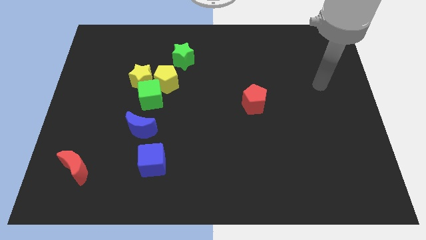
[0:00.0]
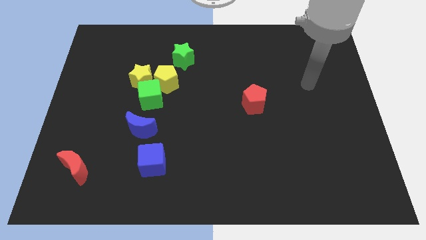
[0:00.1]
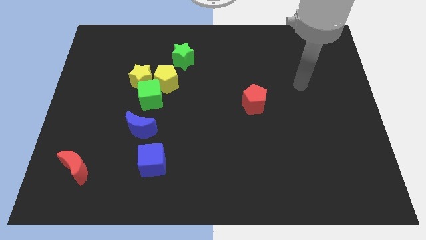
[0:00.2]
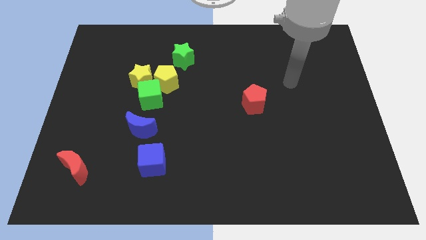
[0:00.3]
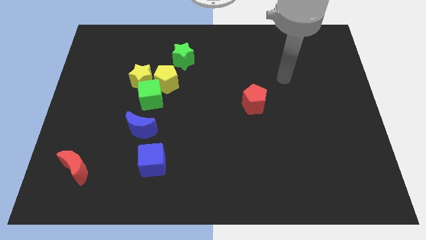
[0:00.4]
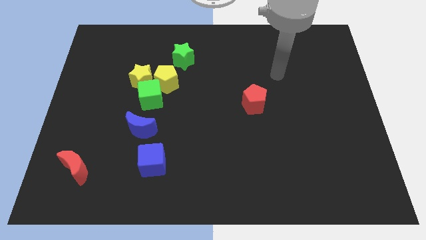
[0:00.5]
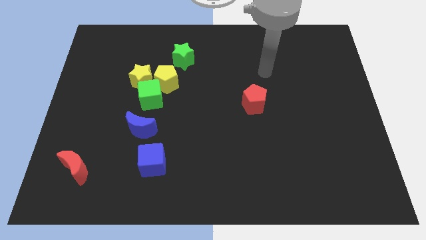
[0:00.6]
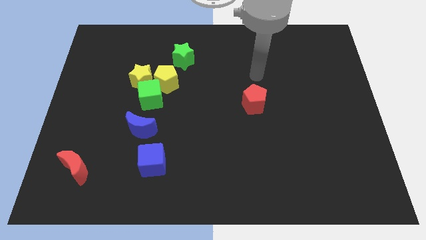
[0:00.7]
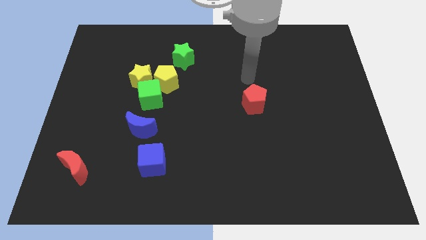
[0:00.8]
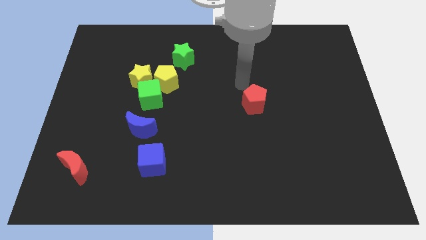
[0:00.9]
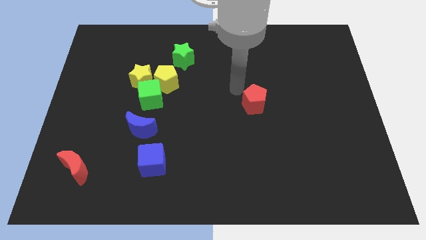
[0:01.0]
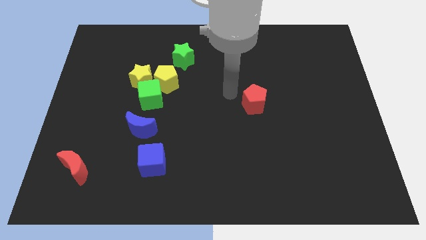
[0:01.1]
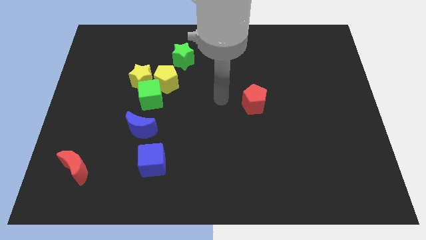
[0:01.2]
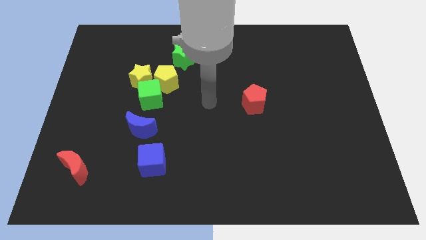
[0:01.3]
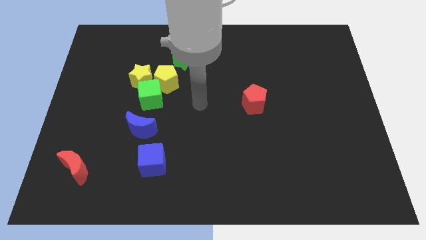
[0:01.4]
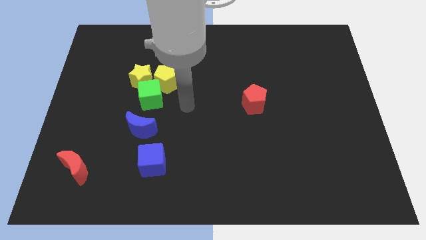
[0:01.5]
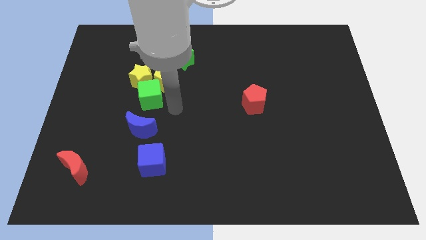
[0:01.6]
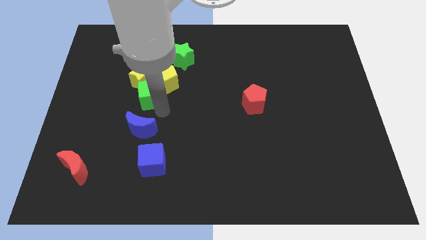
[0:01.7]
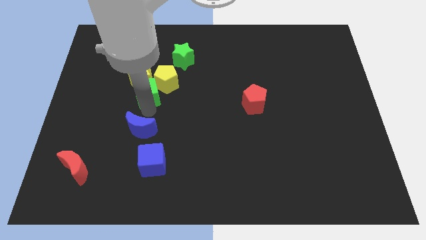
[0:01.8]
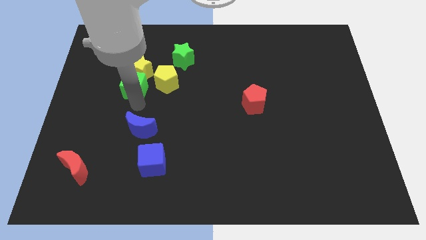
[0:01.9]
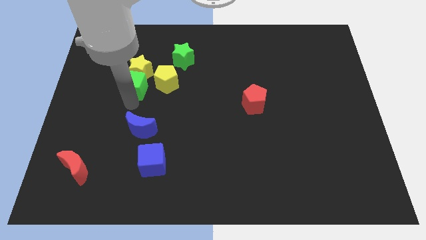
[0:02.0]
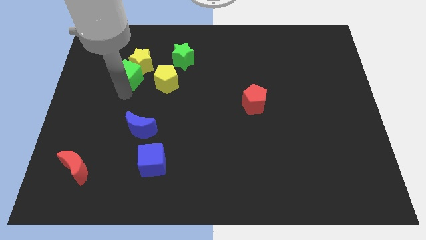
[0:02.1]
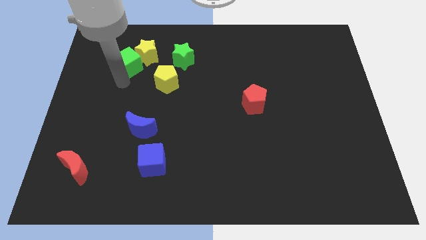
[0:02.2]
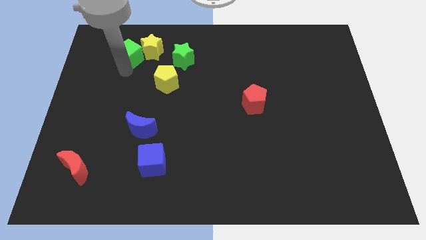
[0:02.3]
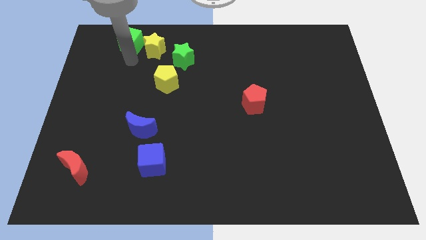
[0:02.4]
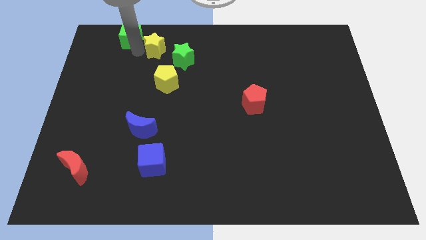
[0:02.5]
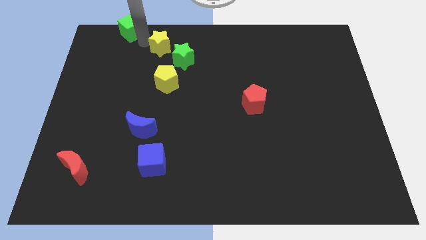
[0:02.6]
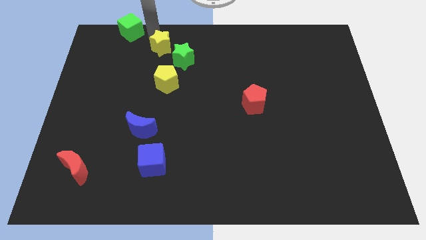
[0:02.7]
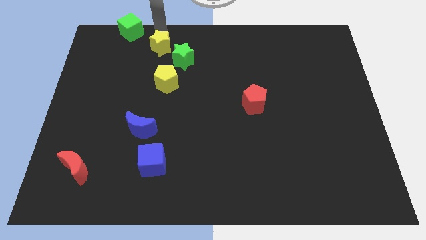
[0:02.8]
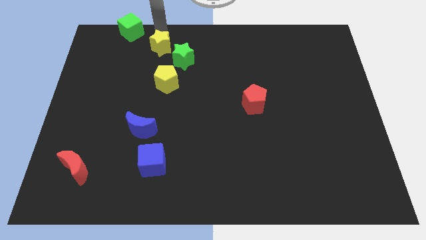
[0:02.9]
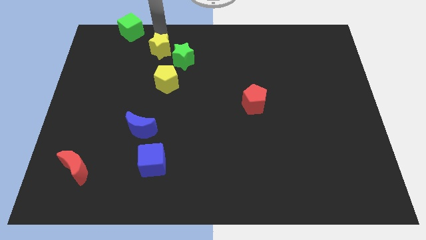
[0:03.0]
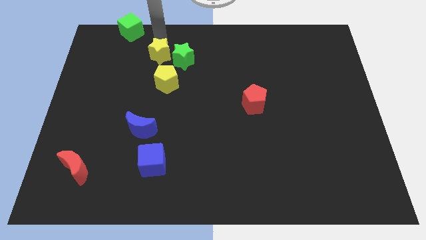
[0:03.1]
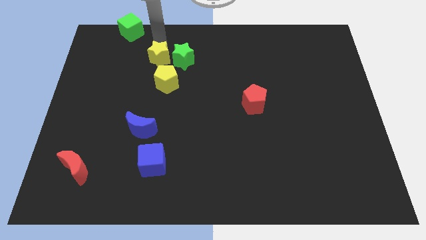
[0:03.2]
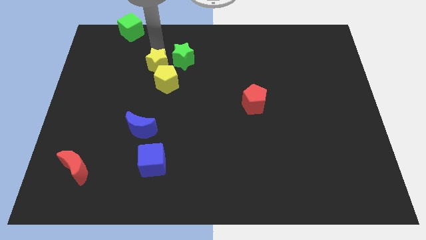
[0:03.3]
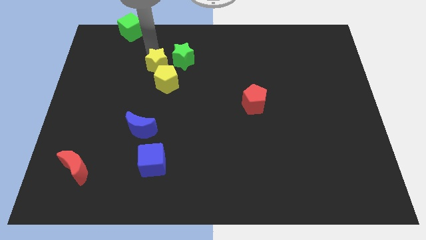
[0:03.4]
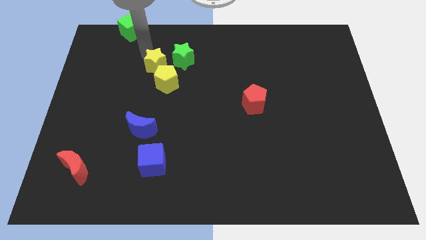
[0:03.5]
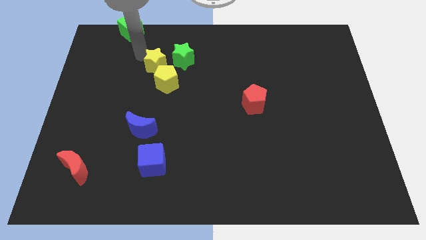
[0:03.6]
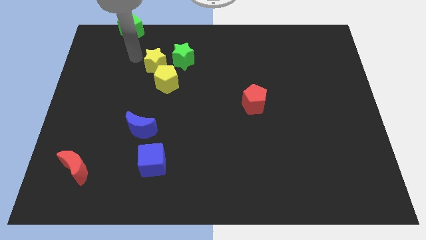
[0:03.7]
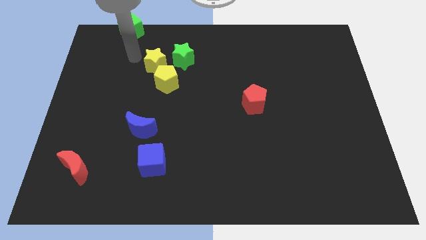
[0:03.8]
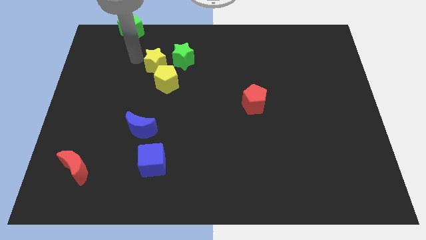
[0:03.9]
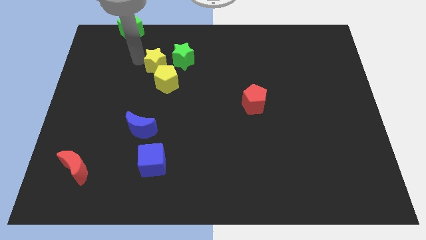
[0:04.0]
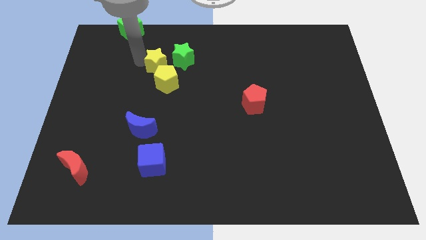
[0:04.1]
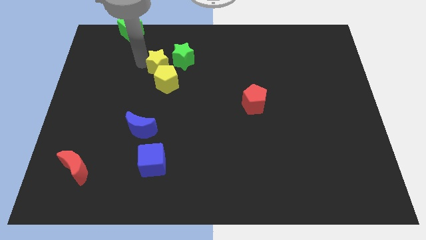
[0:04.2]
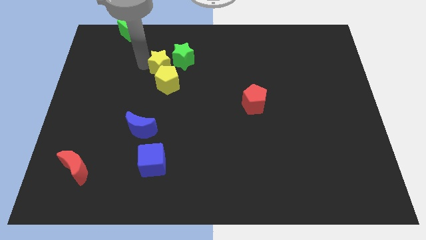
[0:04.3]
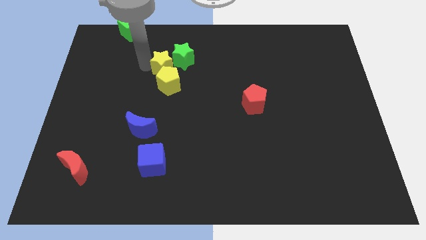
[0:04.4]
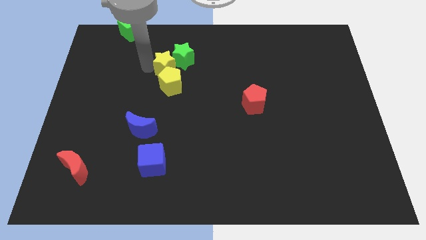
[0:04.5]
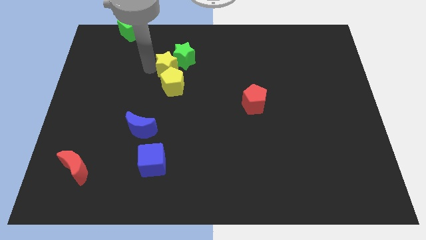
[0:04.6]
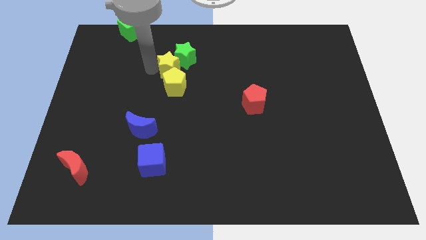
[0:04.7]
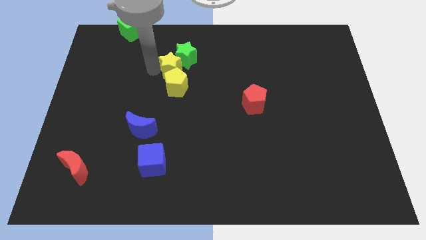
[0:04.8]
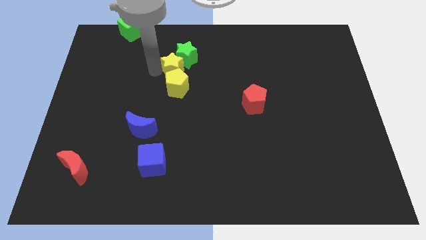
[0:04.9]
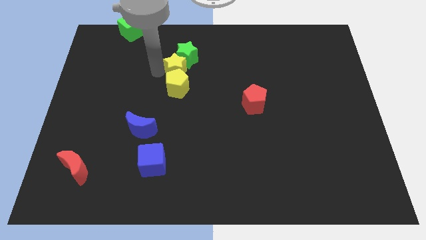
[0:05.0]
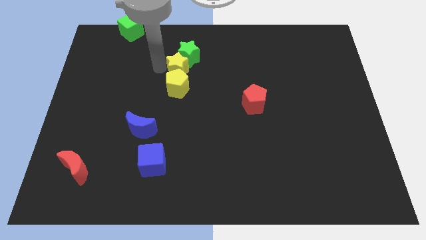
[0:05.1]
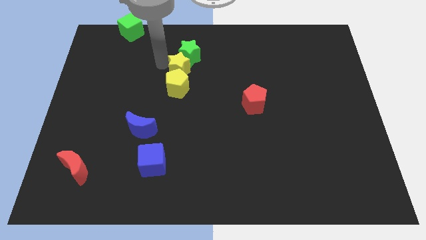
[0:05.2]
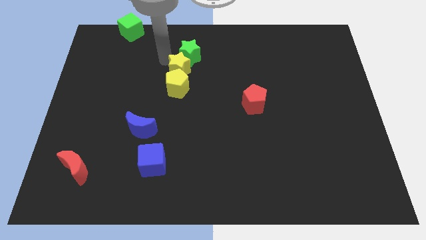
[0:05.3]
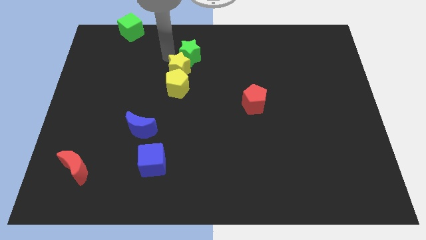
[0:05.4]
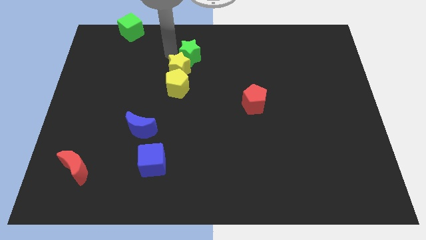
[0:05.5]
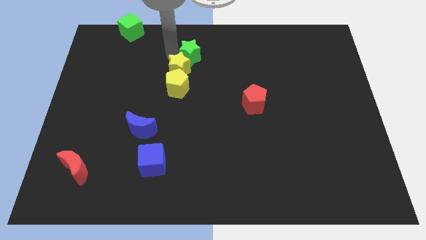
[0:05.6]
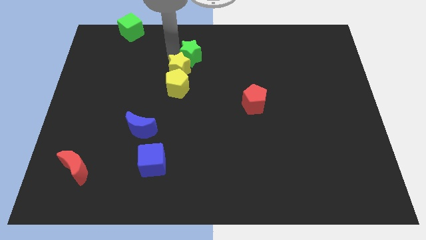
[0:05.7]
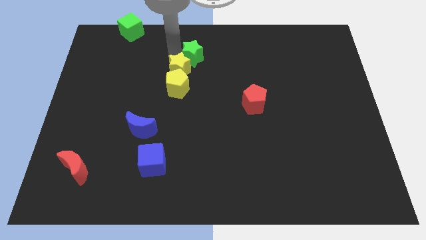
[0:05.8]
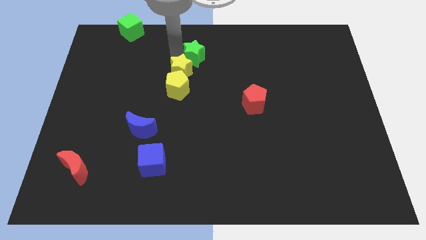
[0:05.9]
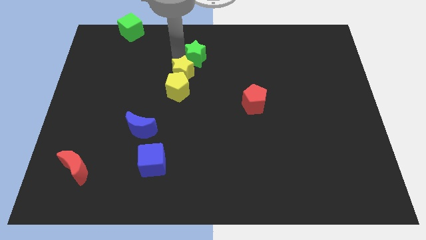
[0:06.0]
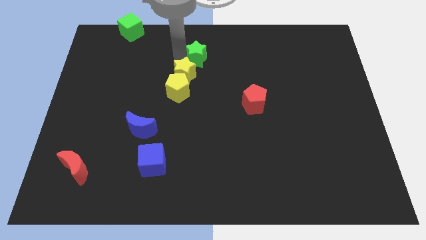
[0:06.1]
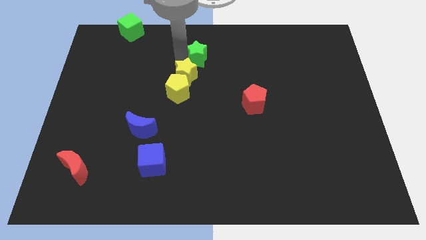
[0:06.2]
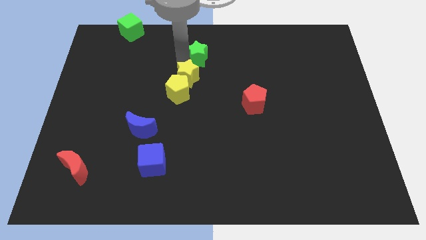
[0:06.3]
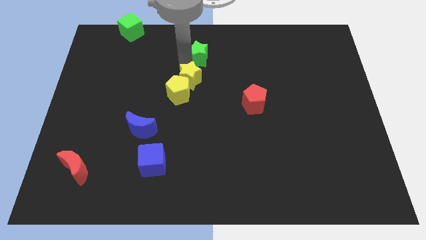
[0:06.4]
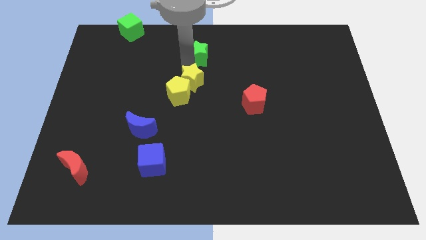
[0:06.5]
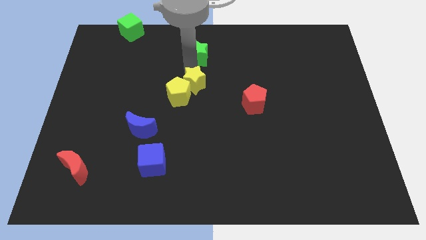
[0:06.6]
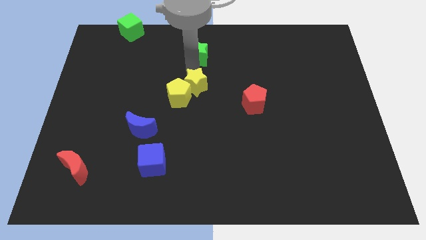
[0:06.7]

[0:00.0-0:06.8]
push the yellow star a little bit down and right

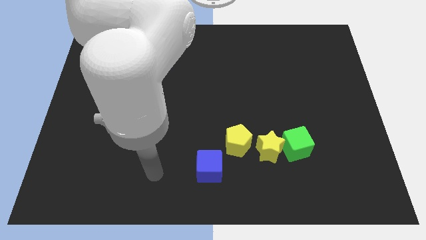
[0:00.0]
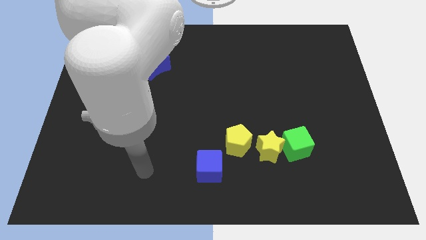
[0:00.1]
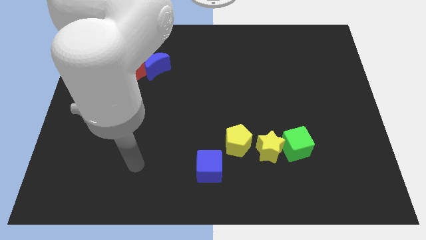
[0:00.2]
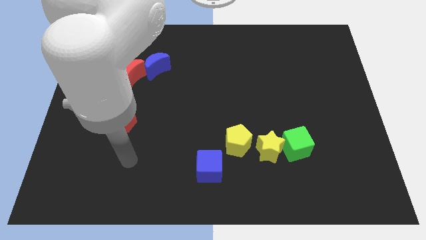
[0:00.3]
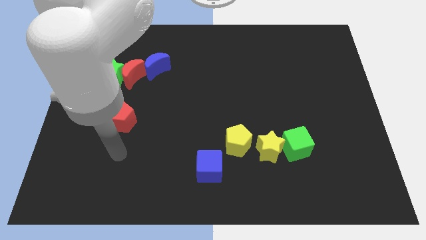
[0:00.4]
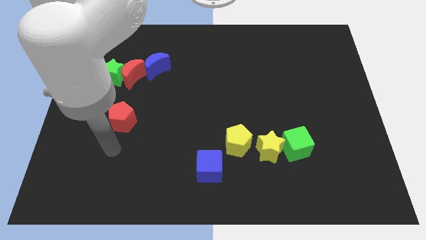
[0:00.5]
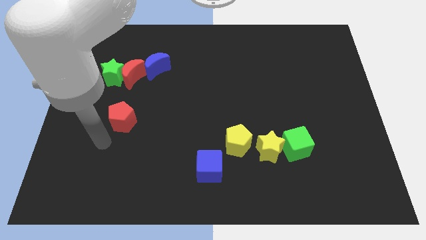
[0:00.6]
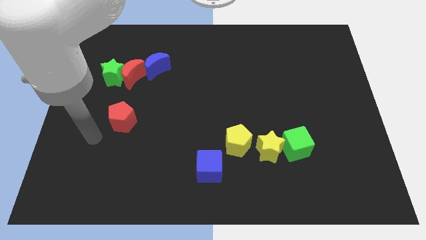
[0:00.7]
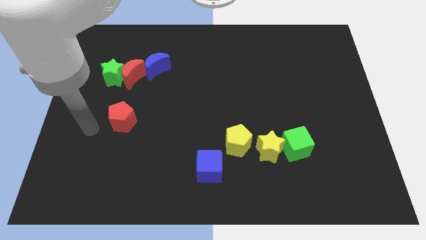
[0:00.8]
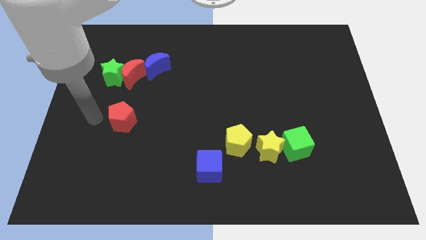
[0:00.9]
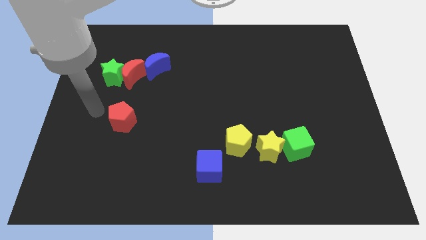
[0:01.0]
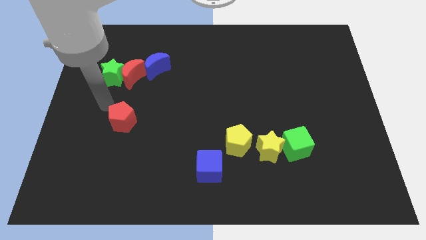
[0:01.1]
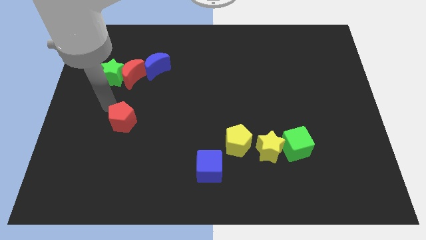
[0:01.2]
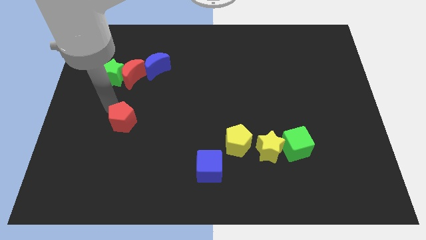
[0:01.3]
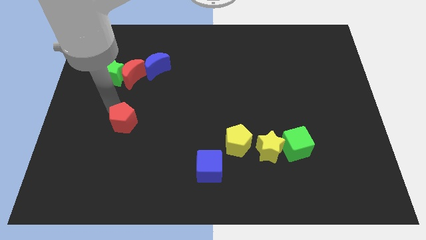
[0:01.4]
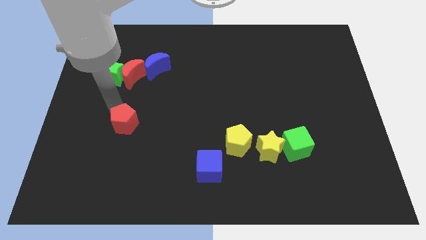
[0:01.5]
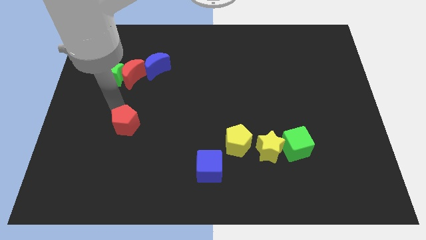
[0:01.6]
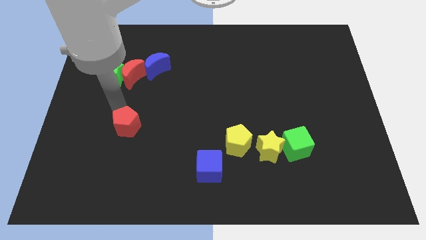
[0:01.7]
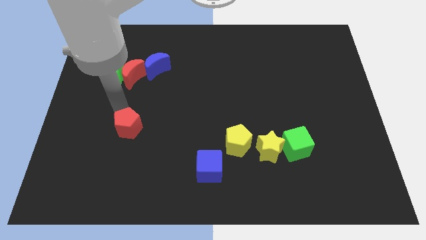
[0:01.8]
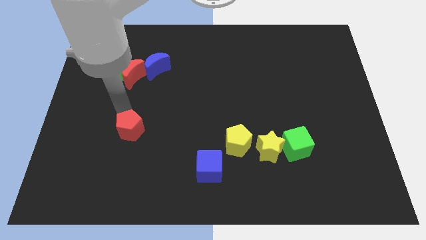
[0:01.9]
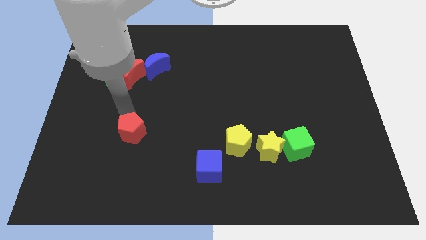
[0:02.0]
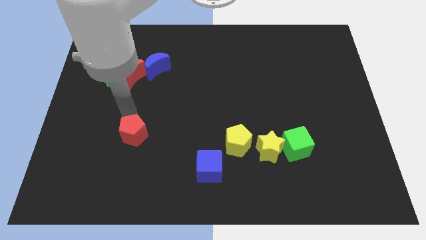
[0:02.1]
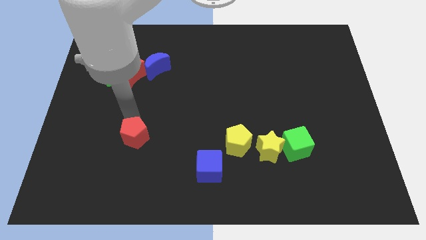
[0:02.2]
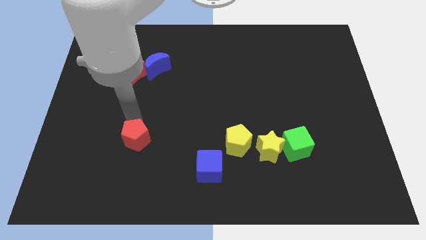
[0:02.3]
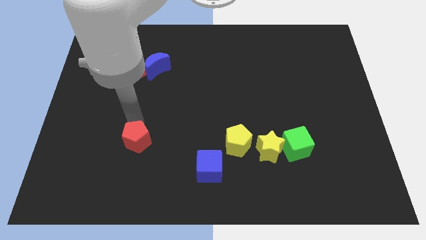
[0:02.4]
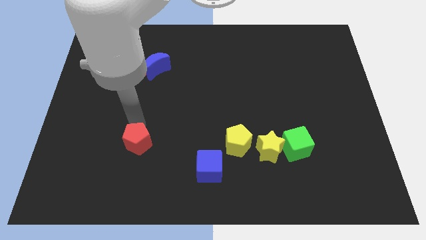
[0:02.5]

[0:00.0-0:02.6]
slide the red pentagon slightly diagonally downwards and to the right
